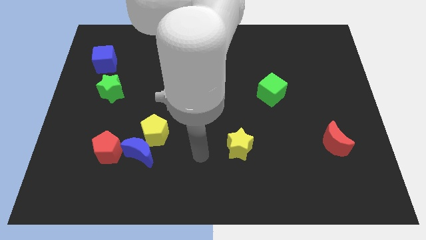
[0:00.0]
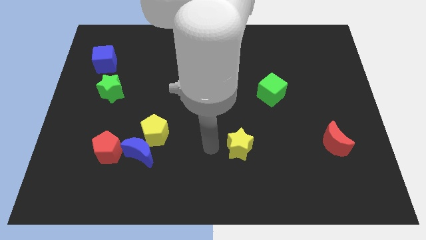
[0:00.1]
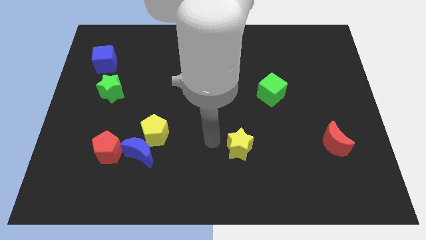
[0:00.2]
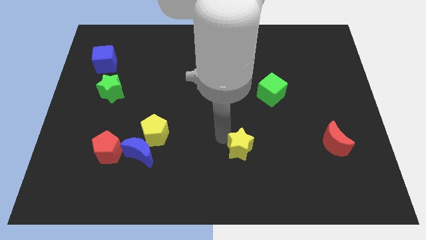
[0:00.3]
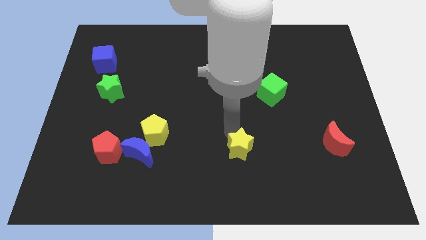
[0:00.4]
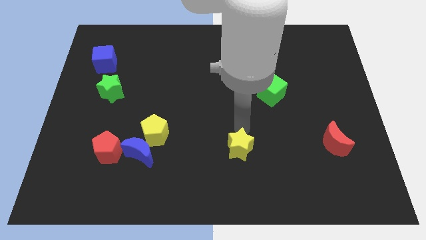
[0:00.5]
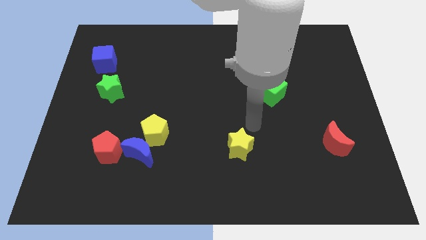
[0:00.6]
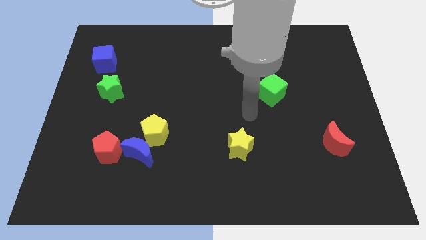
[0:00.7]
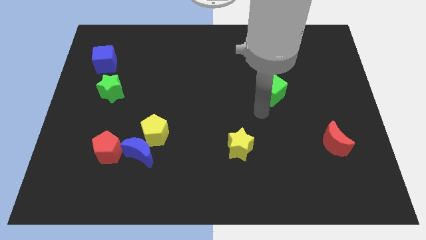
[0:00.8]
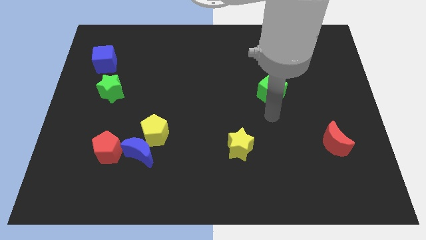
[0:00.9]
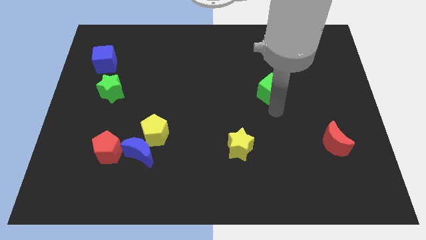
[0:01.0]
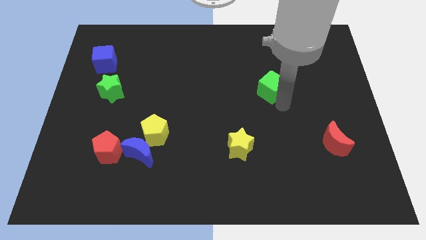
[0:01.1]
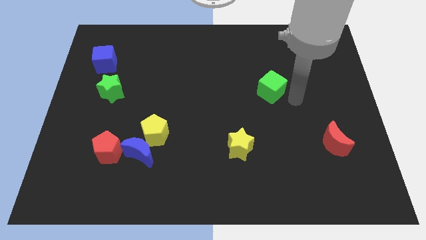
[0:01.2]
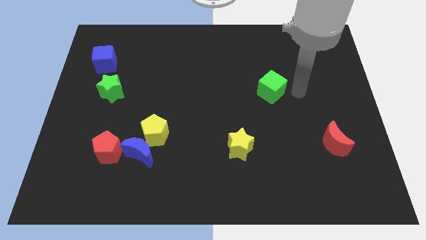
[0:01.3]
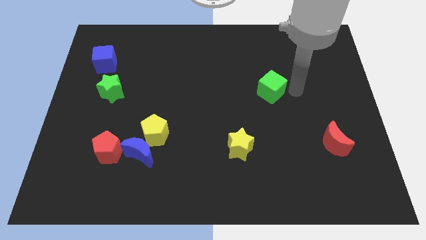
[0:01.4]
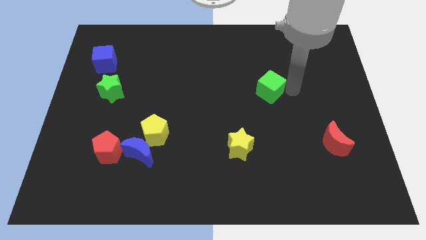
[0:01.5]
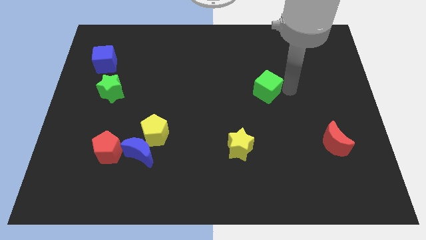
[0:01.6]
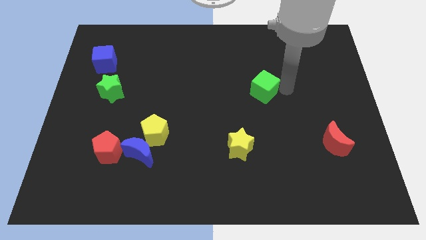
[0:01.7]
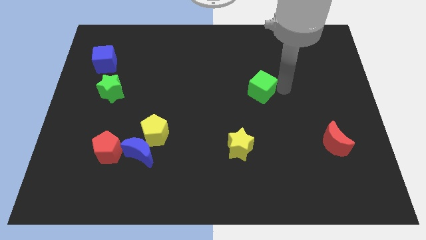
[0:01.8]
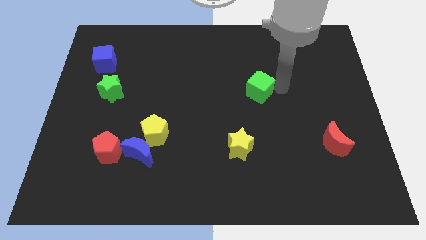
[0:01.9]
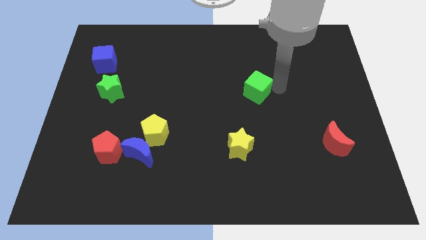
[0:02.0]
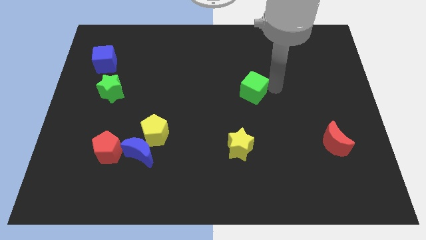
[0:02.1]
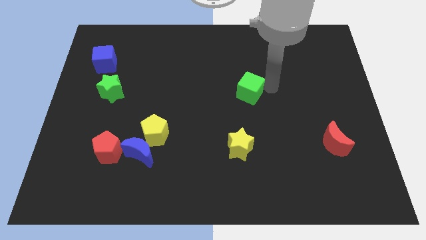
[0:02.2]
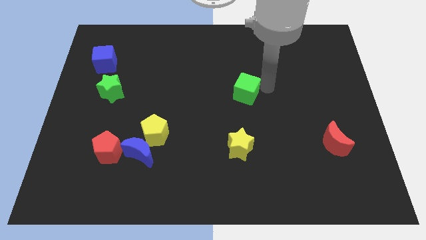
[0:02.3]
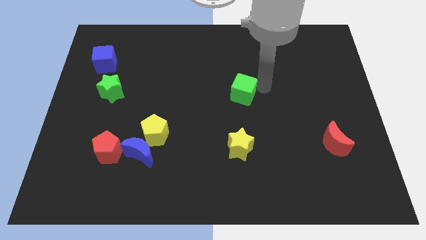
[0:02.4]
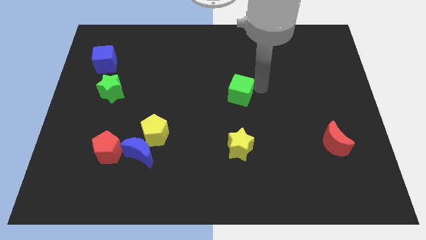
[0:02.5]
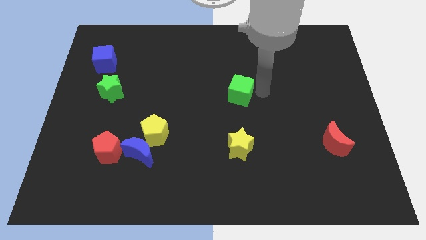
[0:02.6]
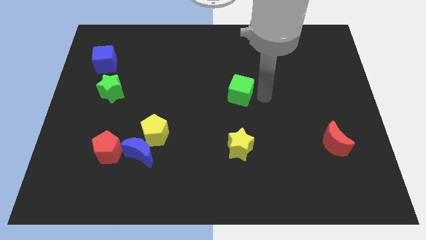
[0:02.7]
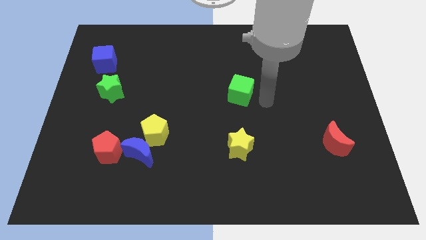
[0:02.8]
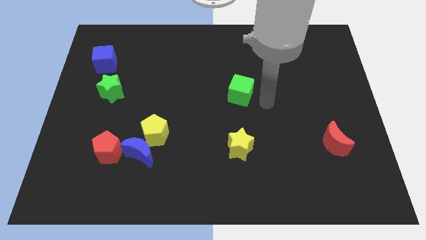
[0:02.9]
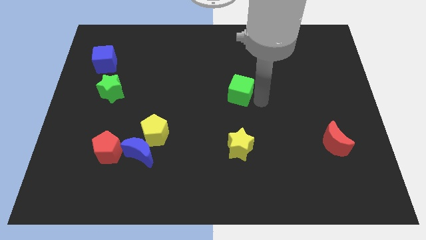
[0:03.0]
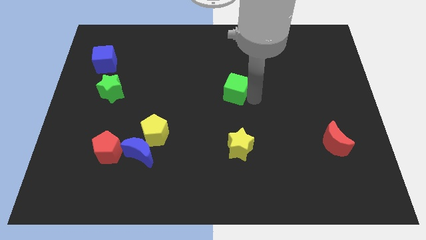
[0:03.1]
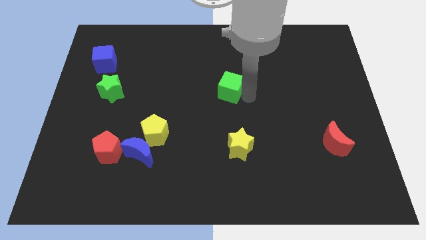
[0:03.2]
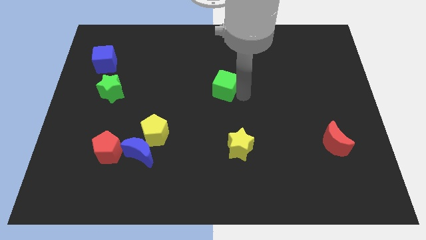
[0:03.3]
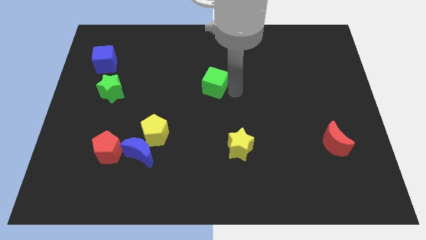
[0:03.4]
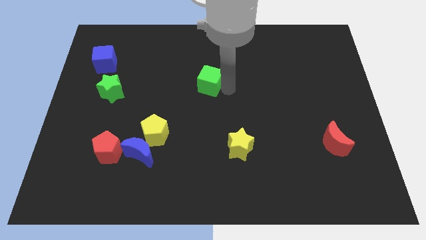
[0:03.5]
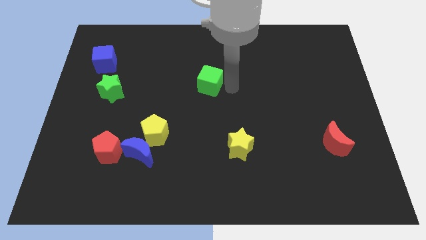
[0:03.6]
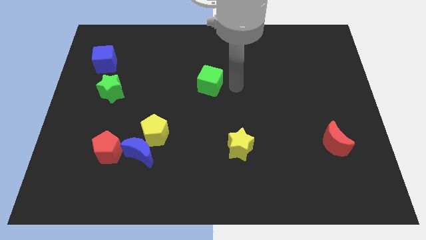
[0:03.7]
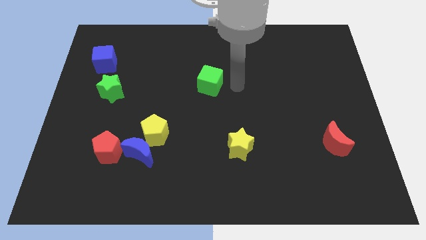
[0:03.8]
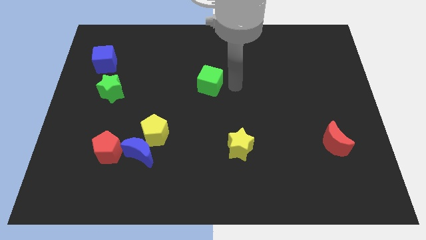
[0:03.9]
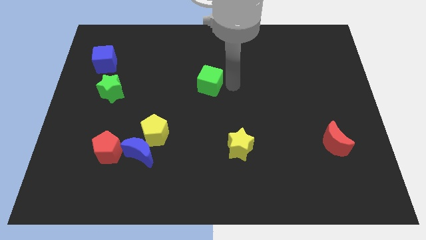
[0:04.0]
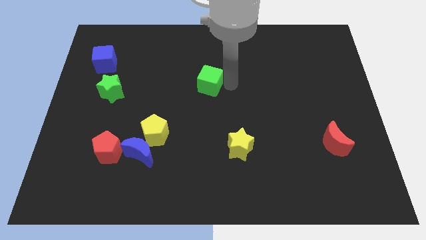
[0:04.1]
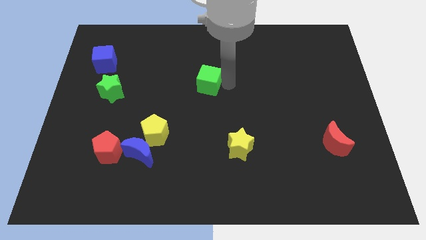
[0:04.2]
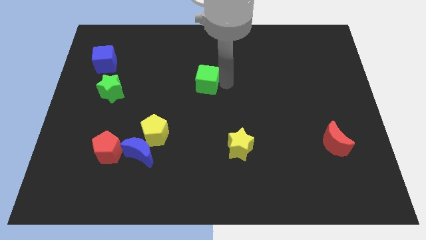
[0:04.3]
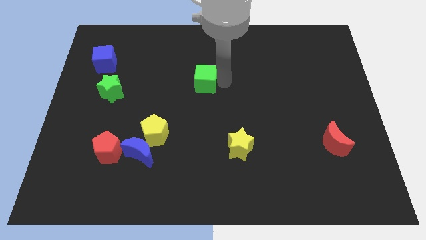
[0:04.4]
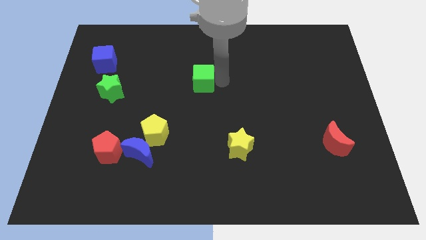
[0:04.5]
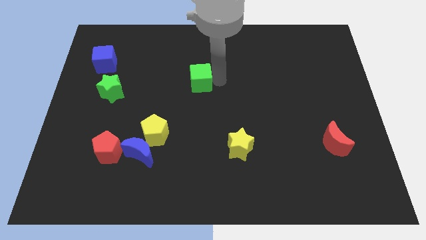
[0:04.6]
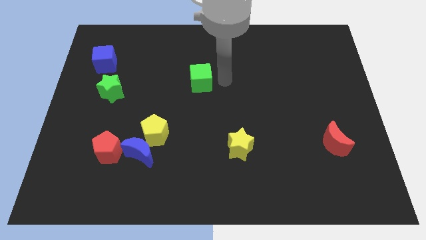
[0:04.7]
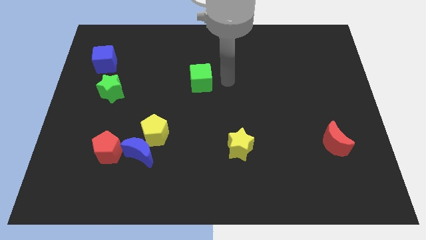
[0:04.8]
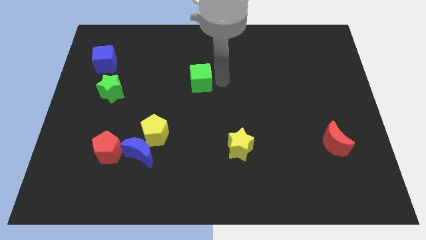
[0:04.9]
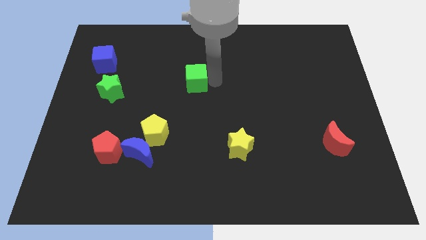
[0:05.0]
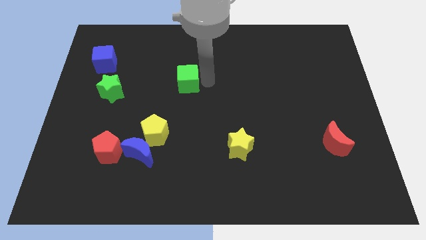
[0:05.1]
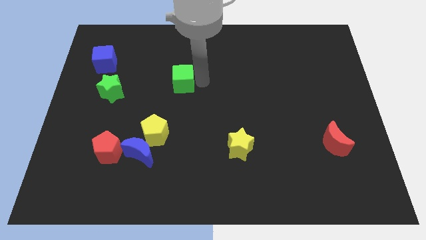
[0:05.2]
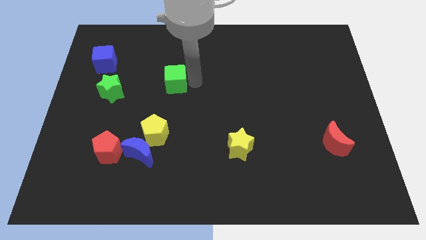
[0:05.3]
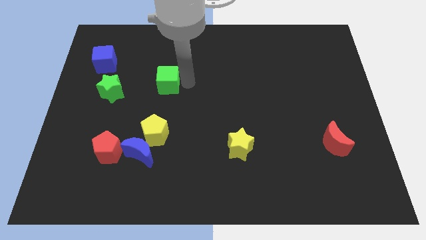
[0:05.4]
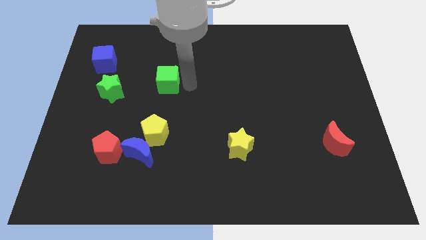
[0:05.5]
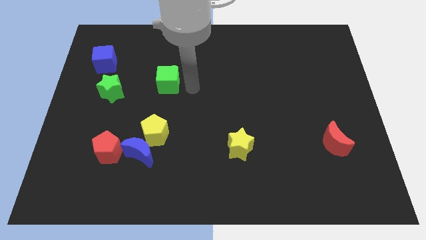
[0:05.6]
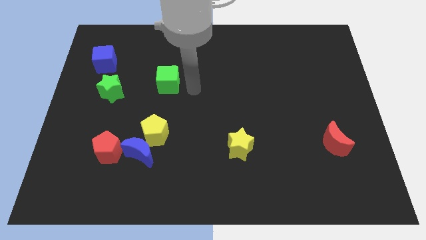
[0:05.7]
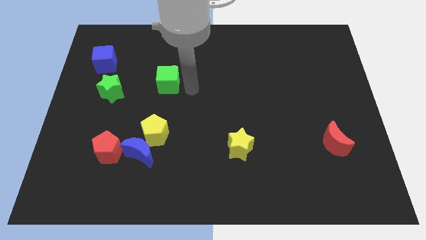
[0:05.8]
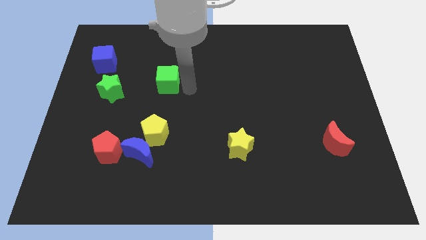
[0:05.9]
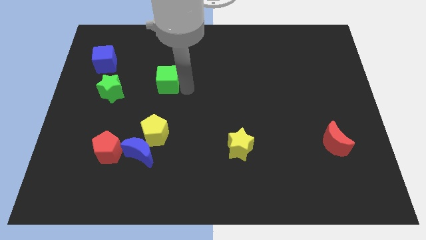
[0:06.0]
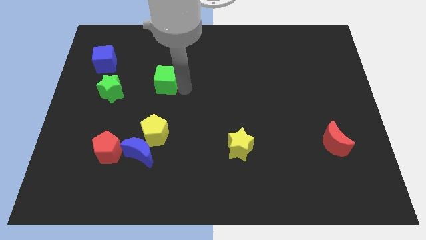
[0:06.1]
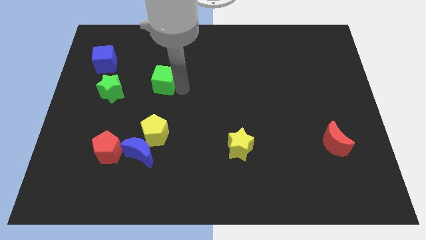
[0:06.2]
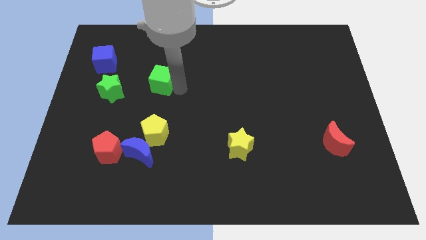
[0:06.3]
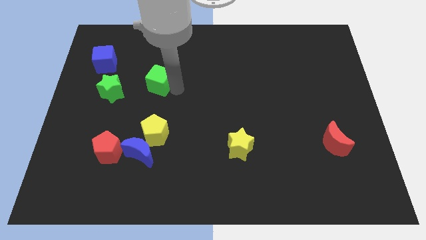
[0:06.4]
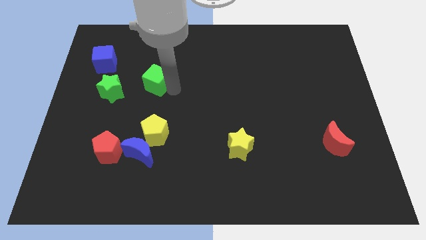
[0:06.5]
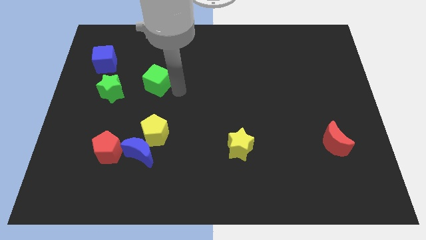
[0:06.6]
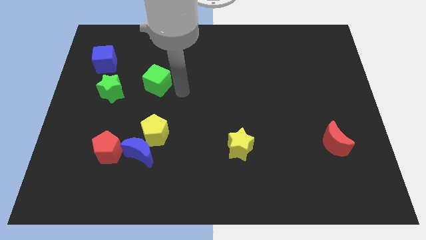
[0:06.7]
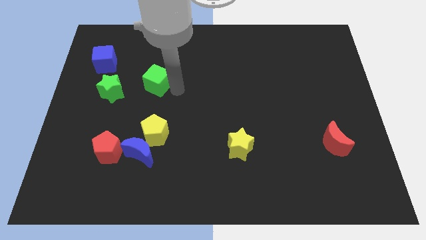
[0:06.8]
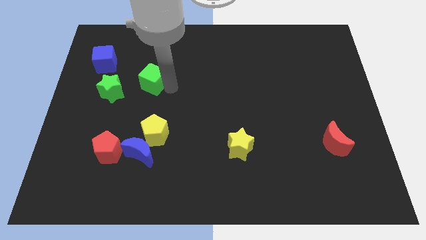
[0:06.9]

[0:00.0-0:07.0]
push the green cube to the top right of the green star

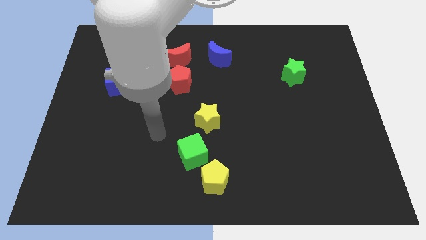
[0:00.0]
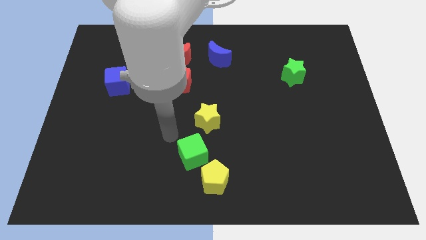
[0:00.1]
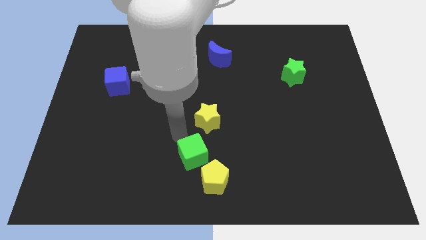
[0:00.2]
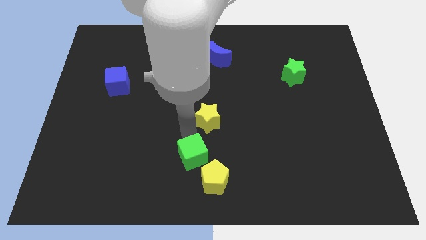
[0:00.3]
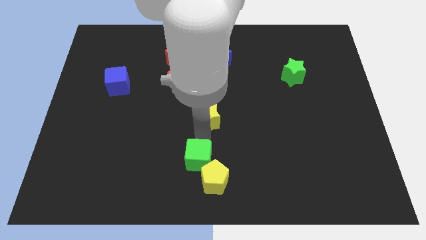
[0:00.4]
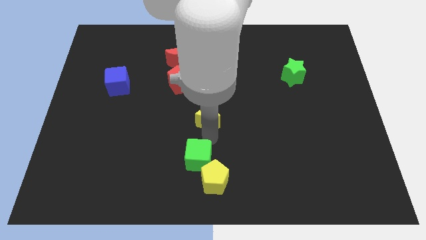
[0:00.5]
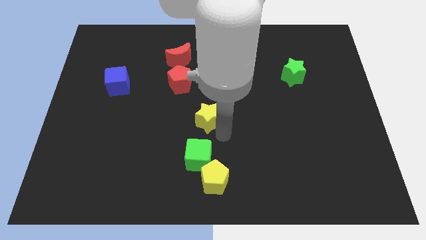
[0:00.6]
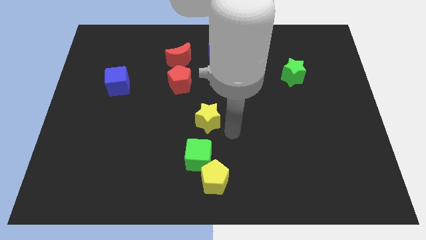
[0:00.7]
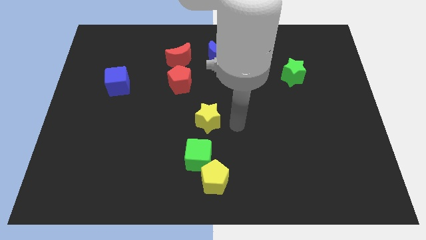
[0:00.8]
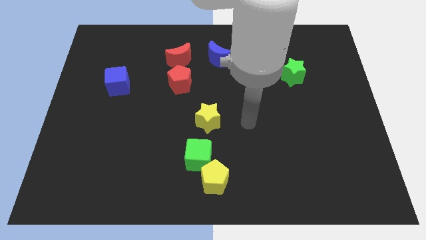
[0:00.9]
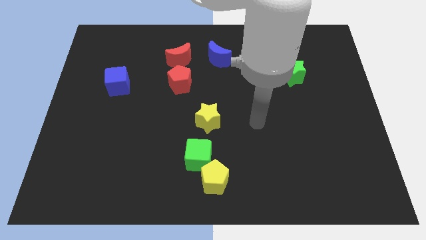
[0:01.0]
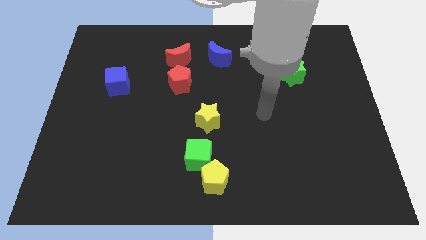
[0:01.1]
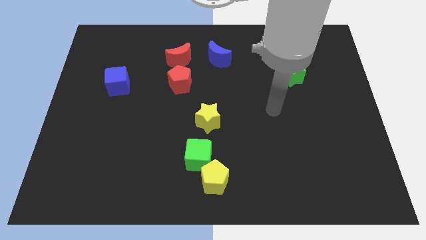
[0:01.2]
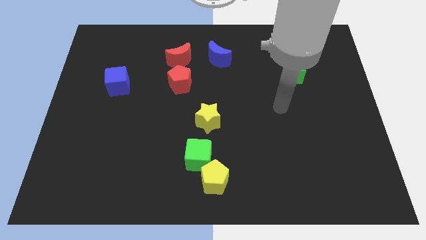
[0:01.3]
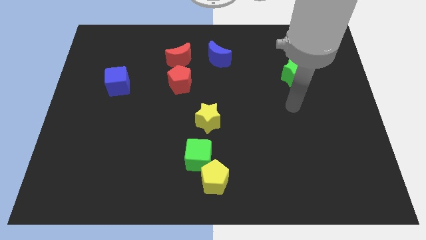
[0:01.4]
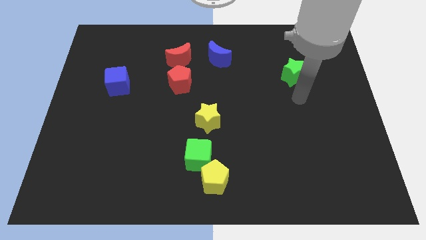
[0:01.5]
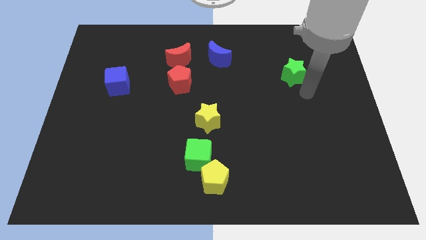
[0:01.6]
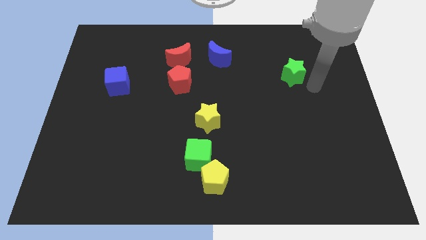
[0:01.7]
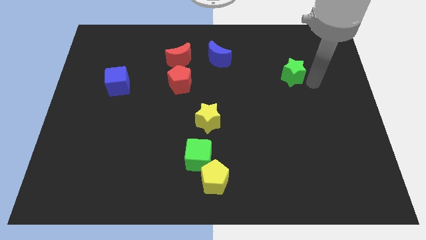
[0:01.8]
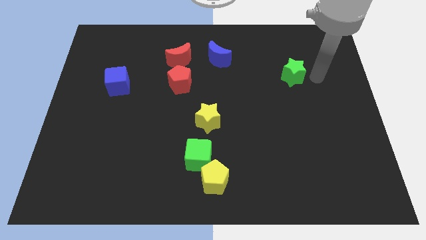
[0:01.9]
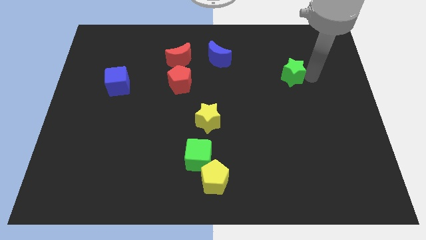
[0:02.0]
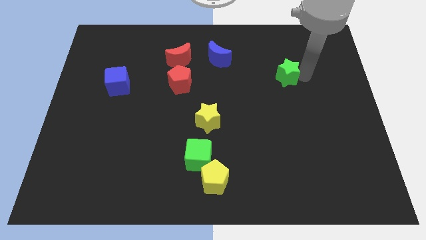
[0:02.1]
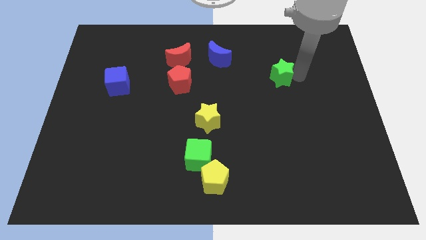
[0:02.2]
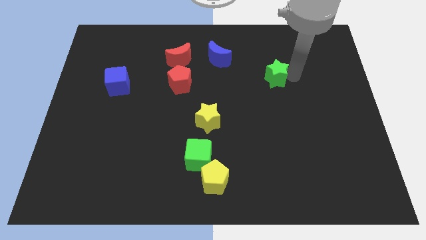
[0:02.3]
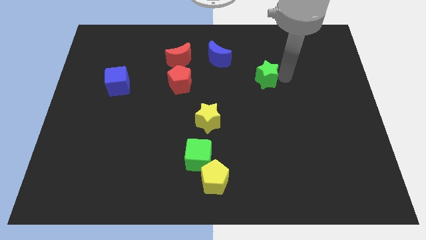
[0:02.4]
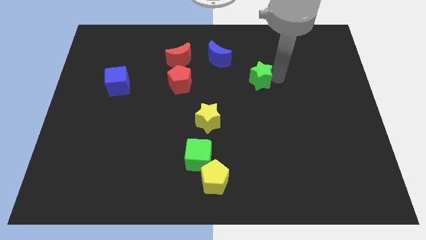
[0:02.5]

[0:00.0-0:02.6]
put the green star to the bottom right of the blue moon
